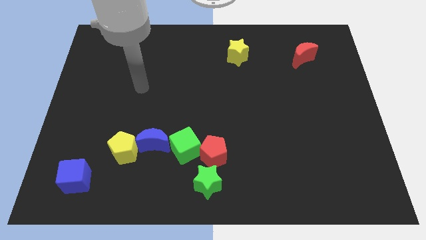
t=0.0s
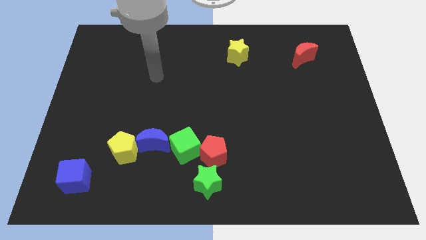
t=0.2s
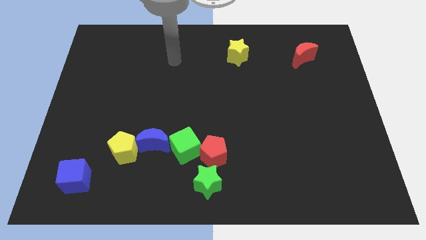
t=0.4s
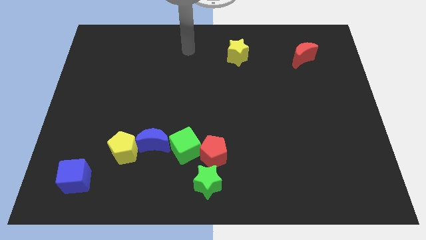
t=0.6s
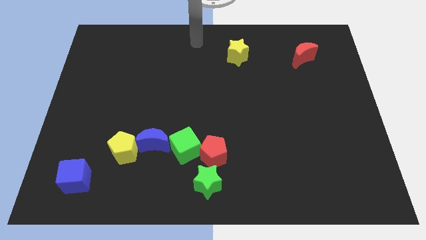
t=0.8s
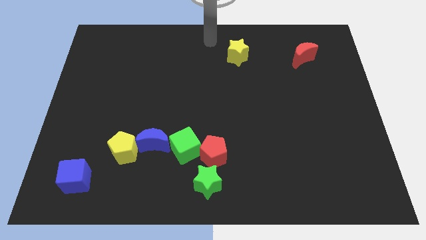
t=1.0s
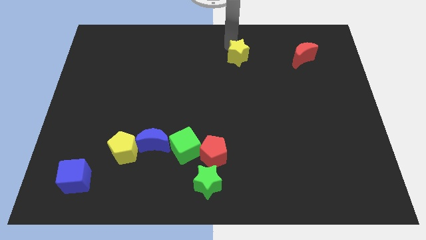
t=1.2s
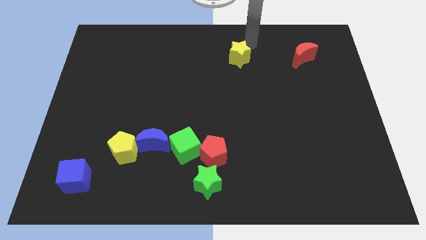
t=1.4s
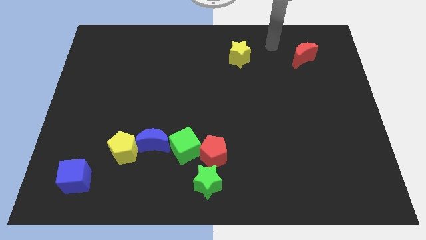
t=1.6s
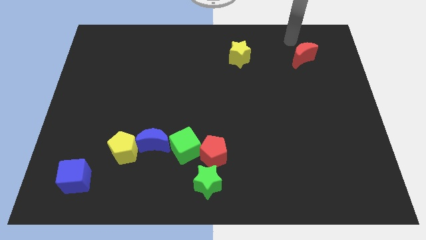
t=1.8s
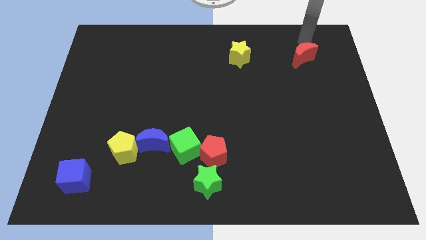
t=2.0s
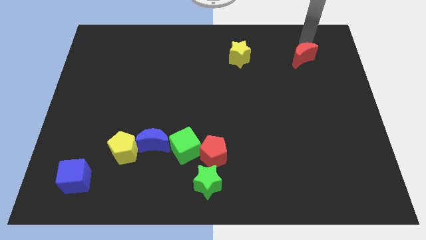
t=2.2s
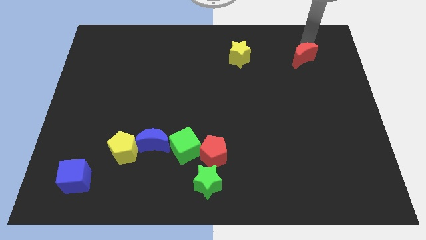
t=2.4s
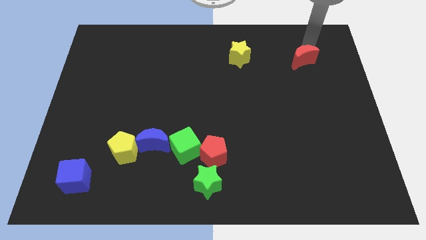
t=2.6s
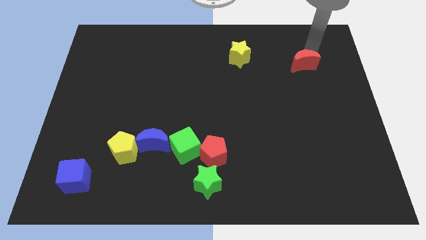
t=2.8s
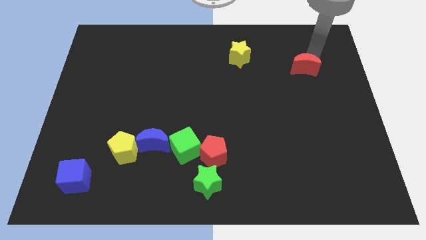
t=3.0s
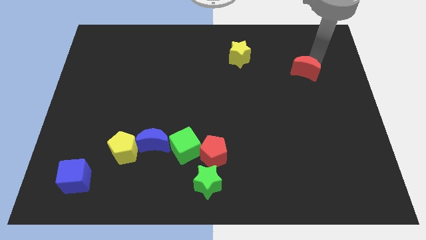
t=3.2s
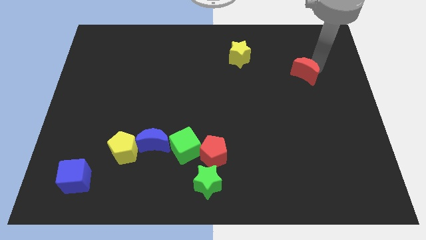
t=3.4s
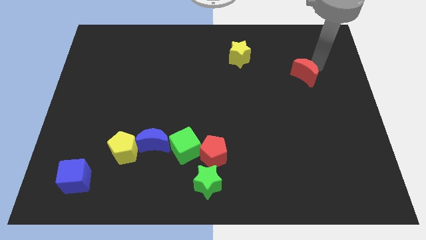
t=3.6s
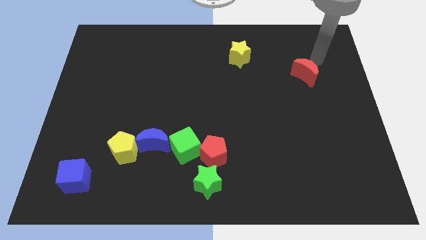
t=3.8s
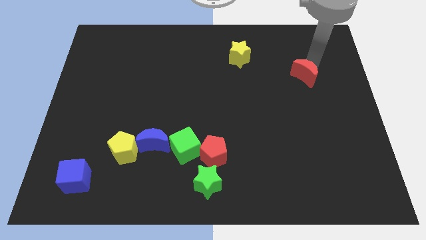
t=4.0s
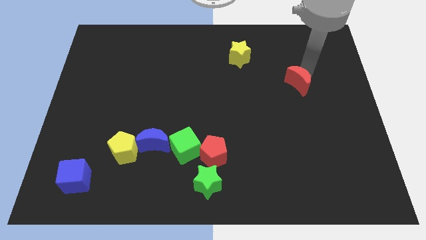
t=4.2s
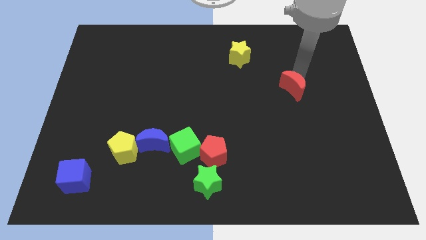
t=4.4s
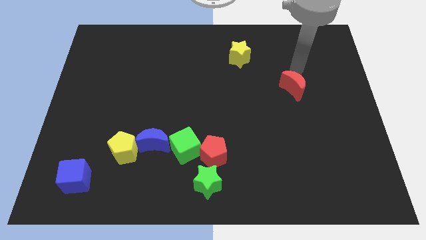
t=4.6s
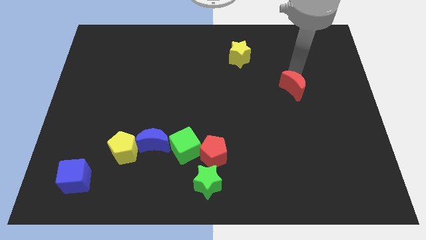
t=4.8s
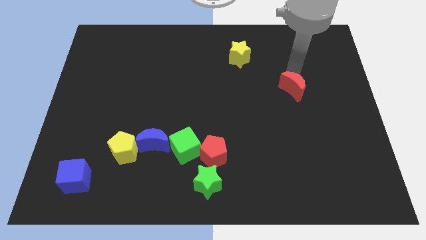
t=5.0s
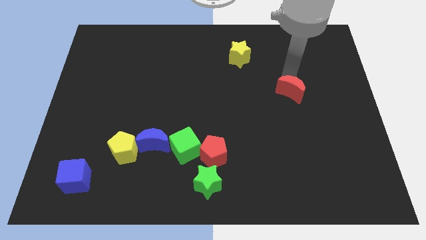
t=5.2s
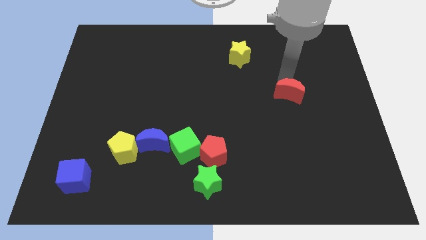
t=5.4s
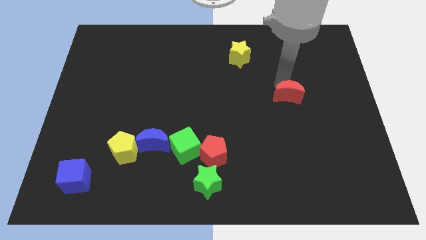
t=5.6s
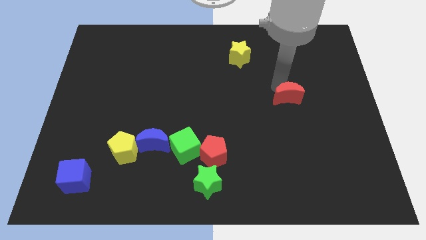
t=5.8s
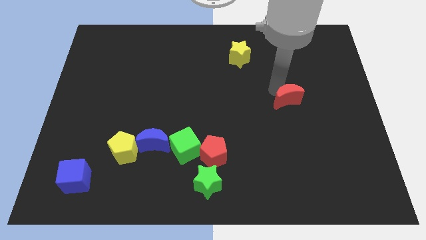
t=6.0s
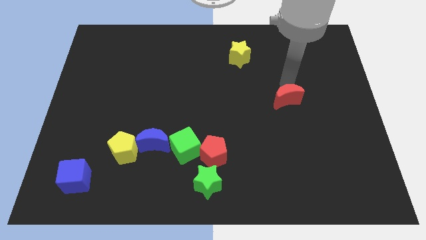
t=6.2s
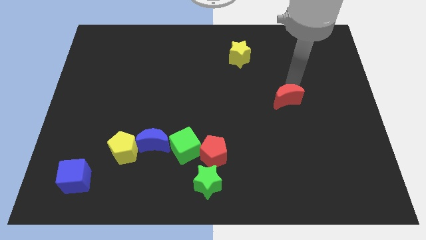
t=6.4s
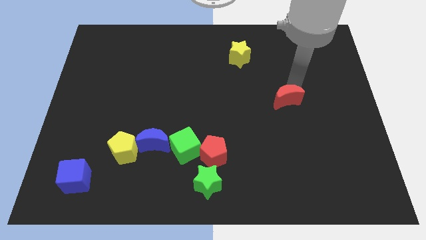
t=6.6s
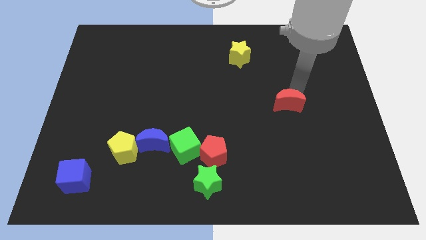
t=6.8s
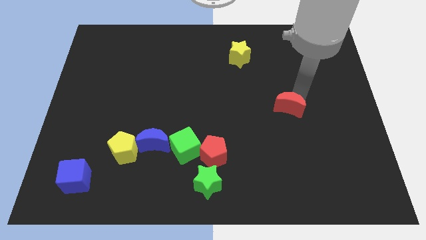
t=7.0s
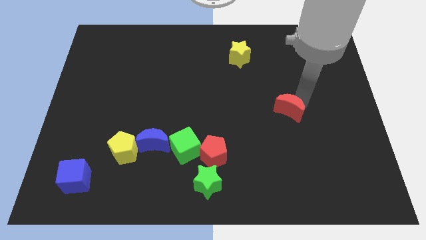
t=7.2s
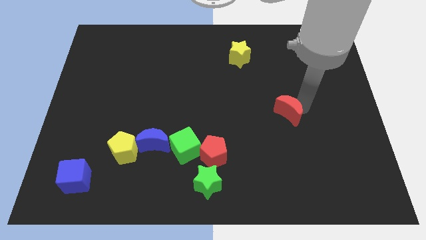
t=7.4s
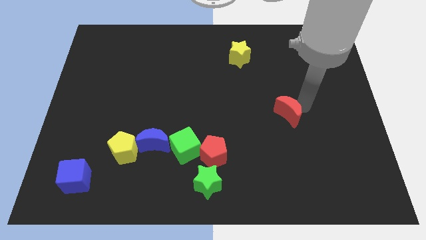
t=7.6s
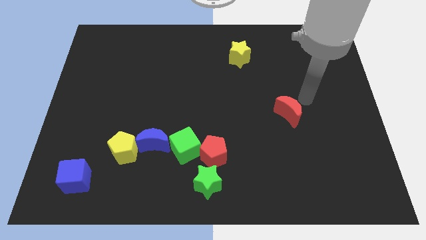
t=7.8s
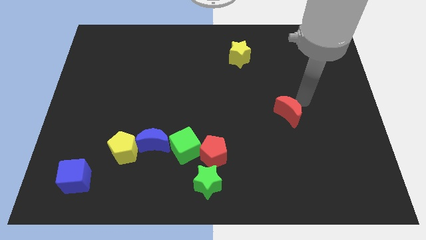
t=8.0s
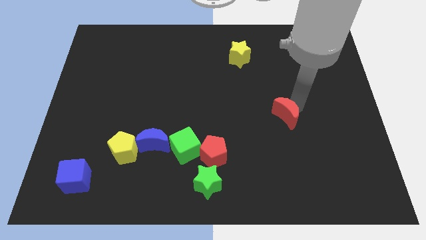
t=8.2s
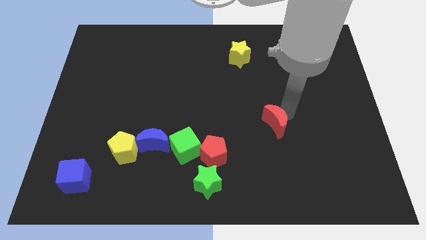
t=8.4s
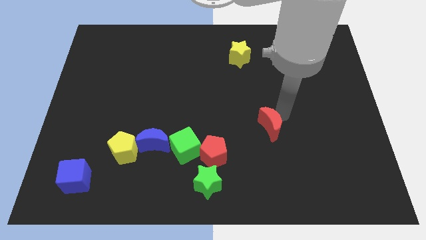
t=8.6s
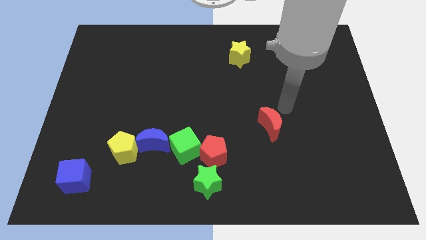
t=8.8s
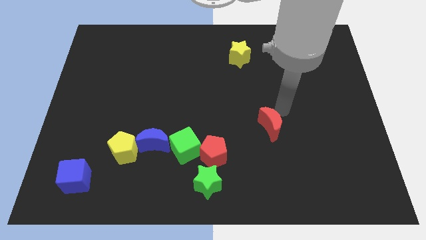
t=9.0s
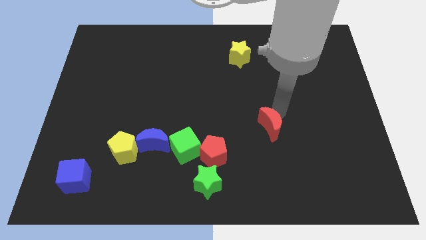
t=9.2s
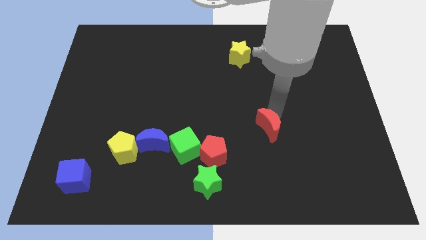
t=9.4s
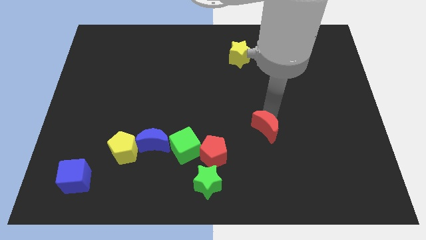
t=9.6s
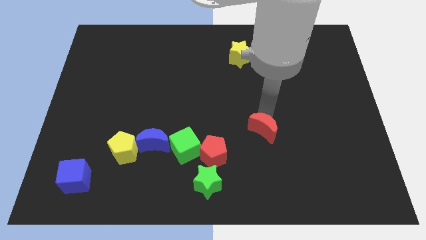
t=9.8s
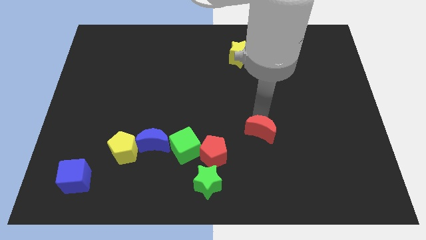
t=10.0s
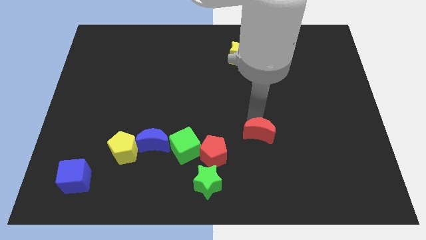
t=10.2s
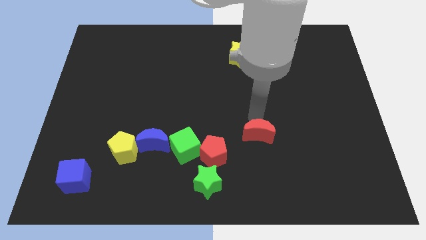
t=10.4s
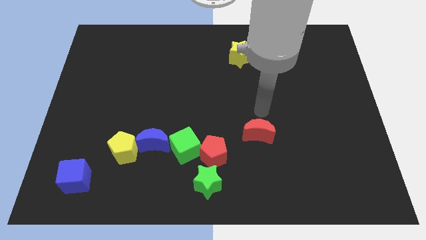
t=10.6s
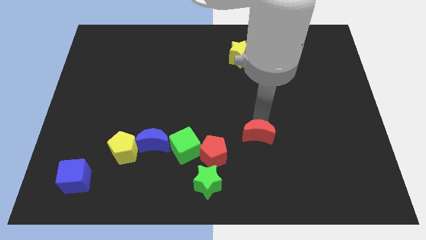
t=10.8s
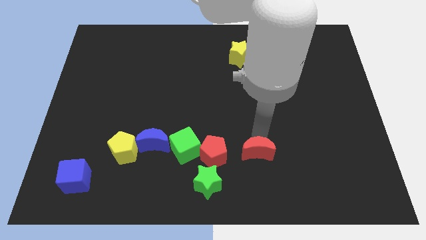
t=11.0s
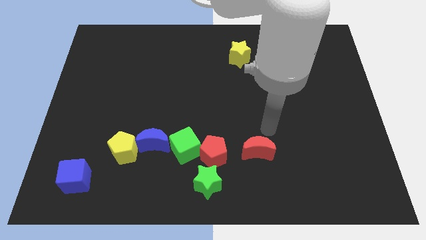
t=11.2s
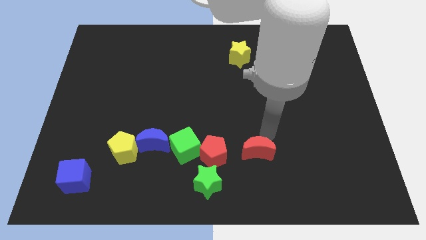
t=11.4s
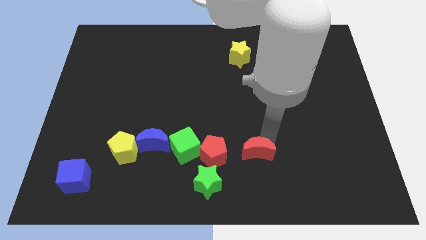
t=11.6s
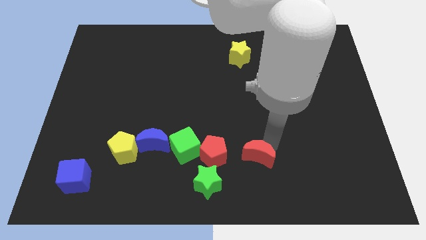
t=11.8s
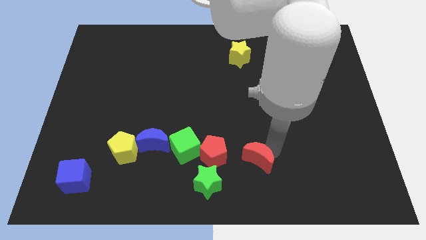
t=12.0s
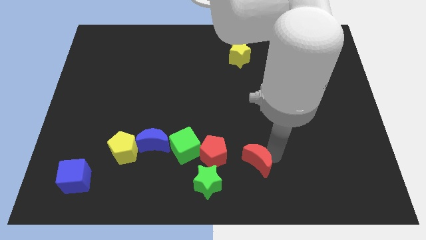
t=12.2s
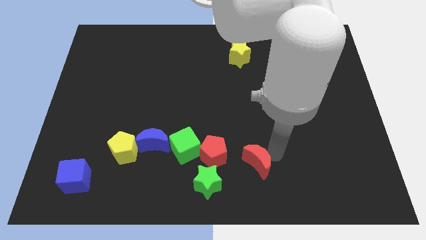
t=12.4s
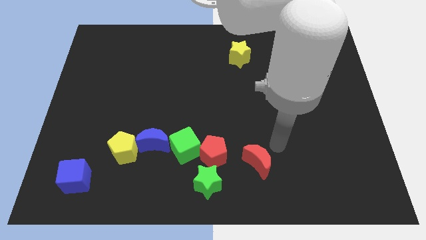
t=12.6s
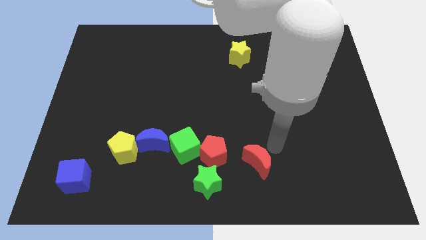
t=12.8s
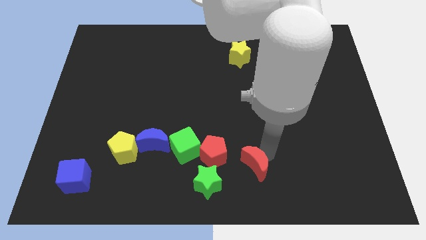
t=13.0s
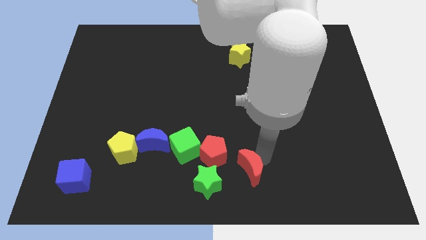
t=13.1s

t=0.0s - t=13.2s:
move the red moon to the bottom

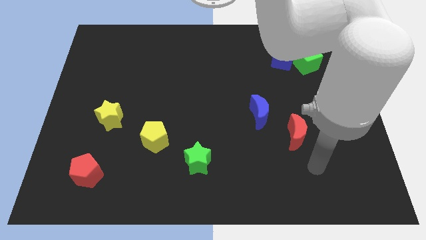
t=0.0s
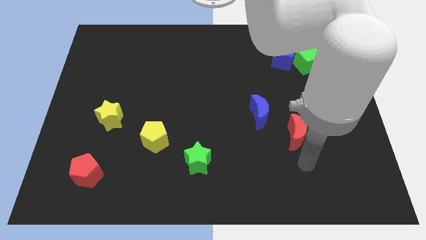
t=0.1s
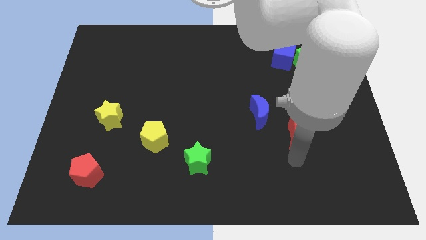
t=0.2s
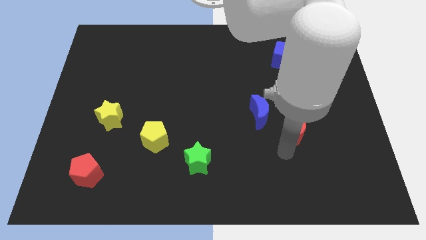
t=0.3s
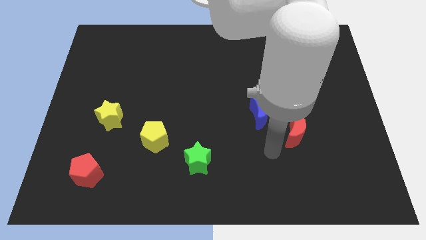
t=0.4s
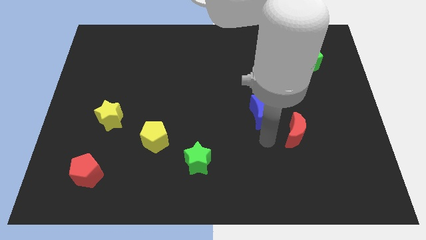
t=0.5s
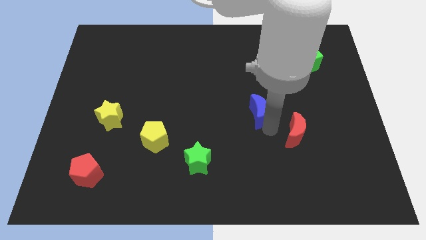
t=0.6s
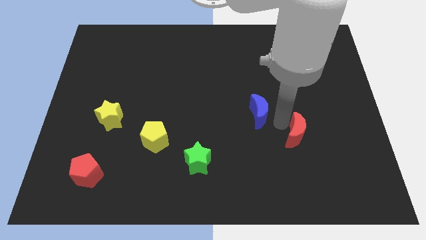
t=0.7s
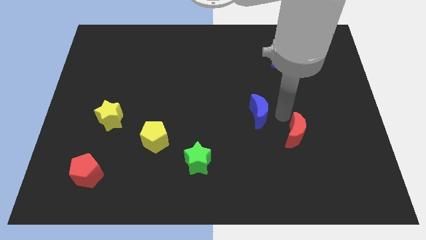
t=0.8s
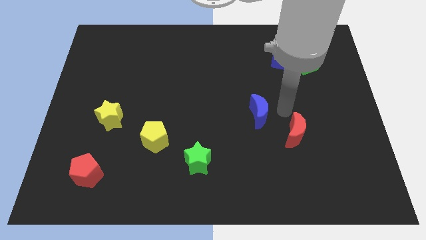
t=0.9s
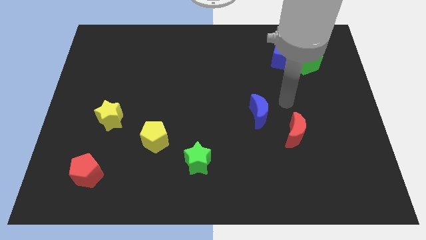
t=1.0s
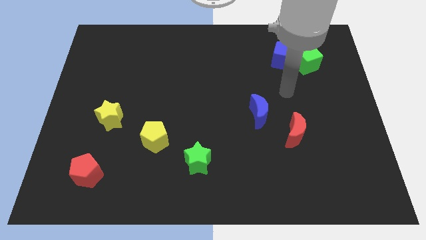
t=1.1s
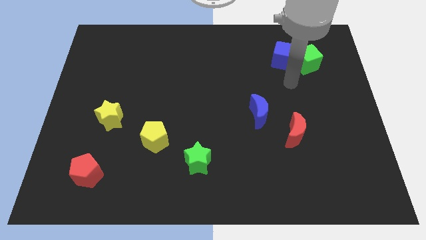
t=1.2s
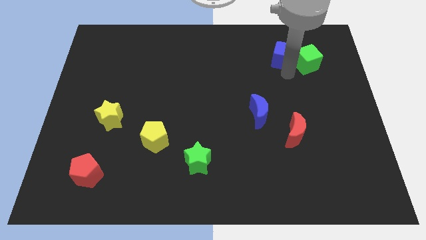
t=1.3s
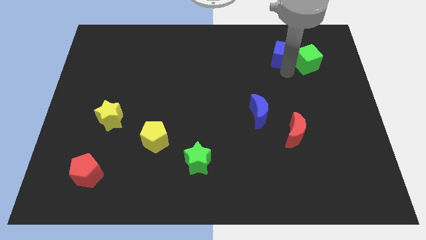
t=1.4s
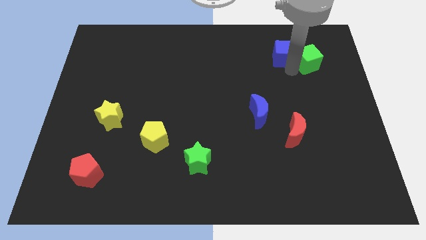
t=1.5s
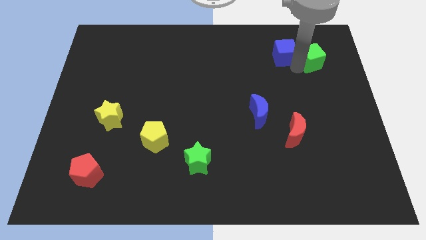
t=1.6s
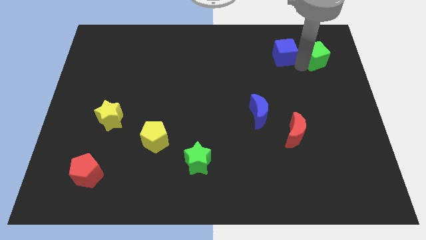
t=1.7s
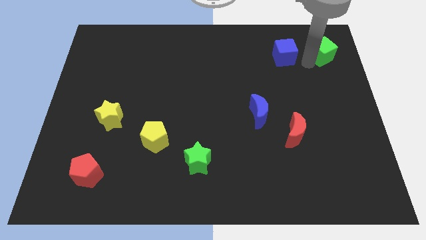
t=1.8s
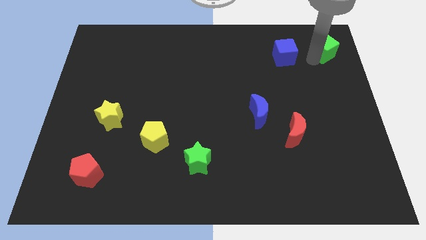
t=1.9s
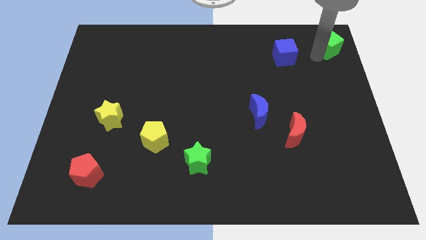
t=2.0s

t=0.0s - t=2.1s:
put the green cube to the top right
